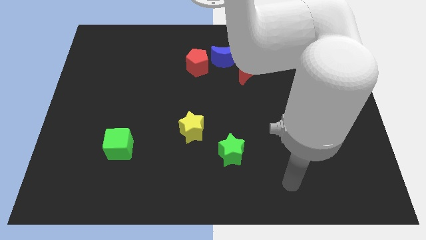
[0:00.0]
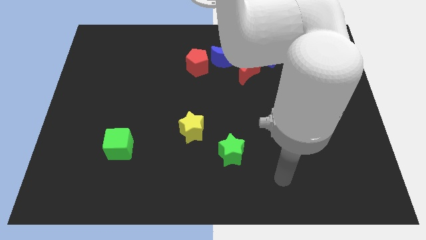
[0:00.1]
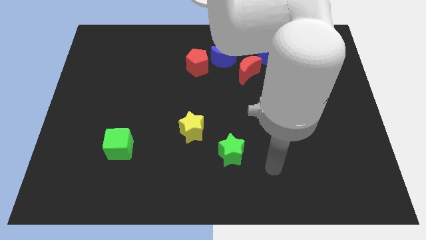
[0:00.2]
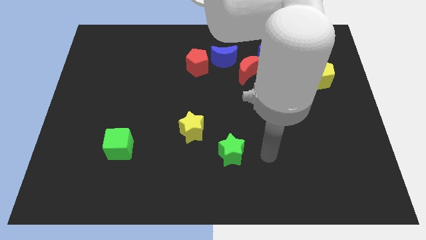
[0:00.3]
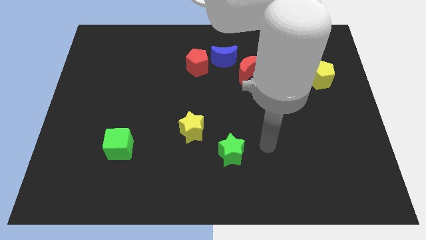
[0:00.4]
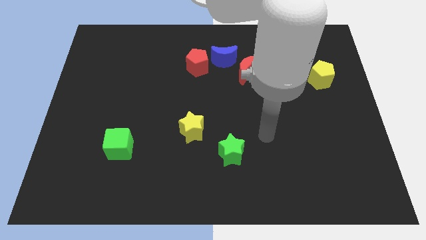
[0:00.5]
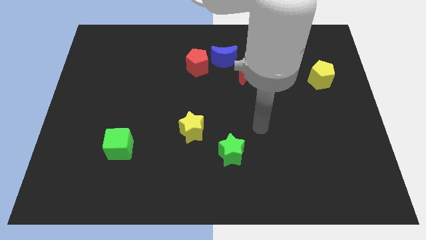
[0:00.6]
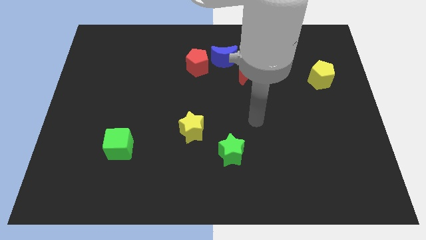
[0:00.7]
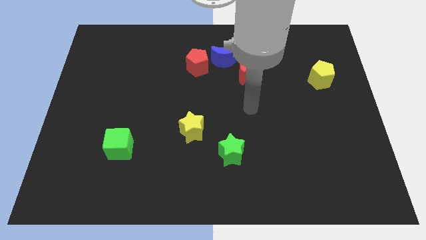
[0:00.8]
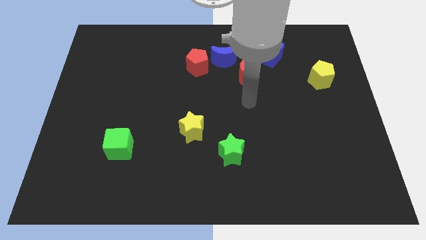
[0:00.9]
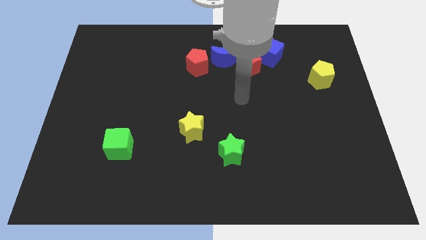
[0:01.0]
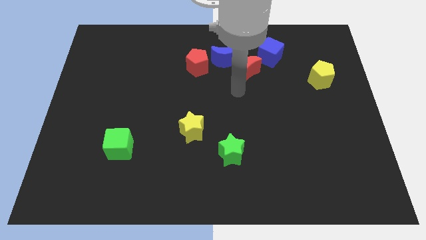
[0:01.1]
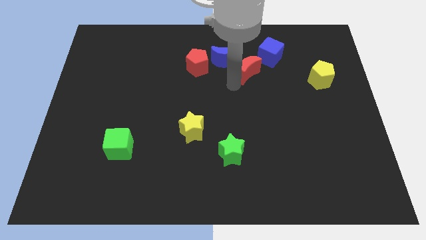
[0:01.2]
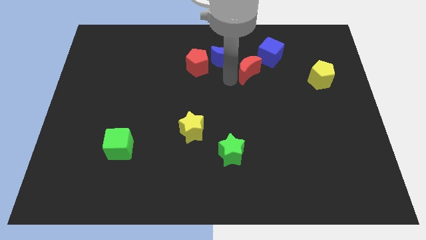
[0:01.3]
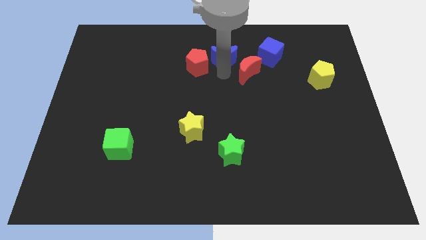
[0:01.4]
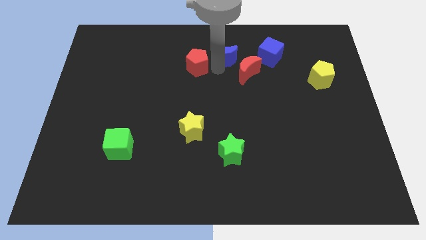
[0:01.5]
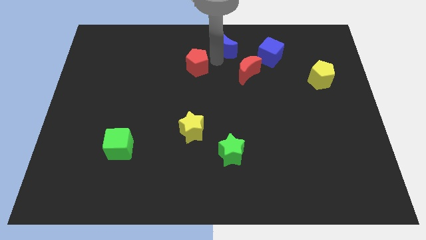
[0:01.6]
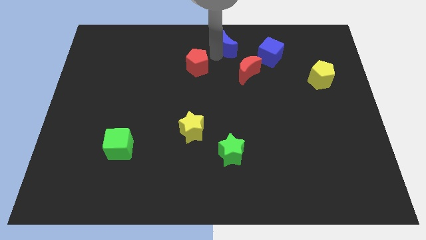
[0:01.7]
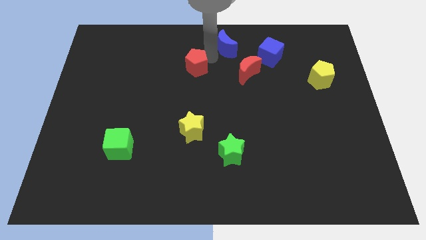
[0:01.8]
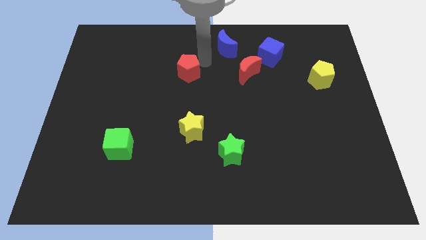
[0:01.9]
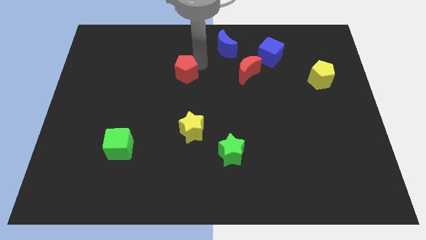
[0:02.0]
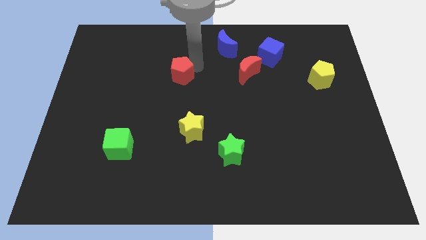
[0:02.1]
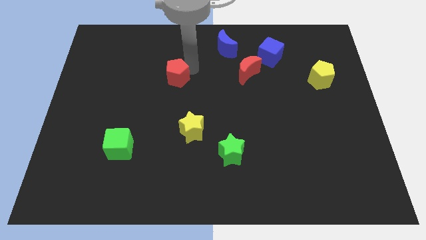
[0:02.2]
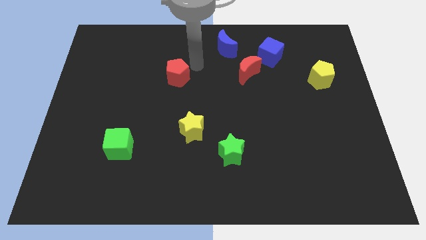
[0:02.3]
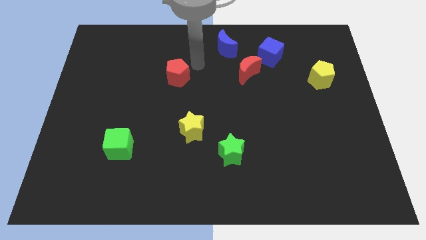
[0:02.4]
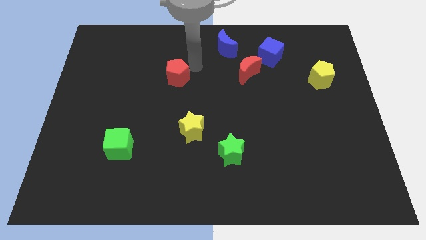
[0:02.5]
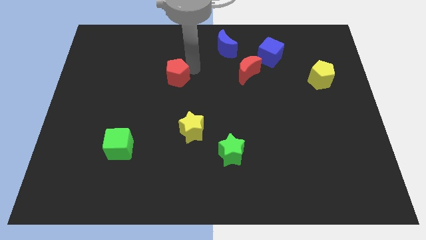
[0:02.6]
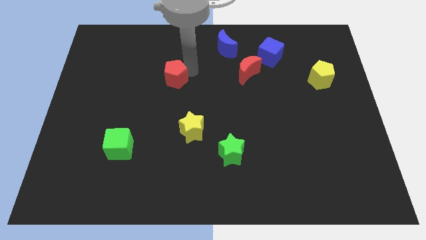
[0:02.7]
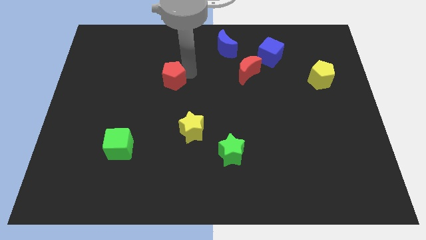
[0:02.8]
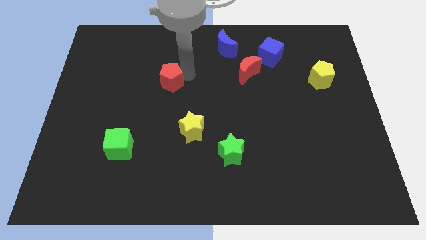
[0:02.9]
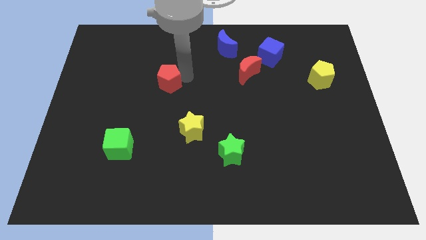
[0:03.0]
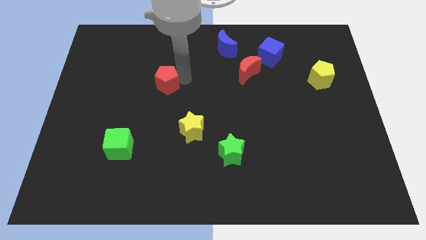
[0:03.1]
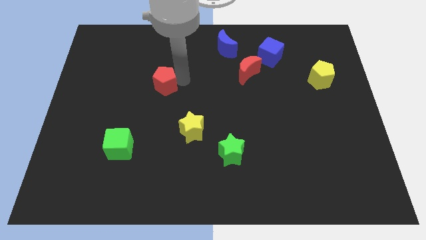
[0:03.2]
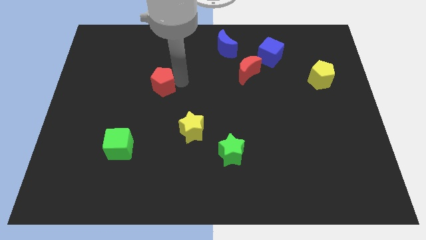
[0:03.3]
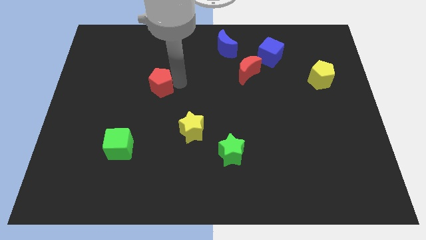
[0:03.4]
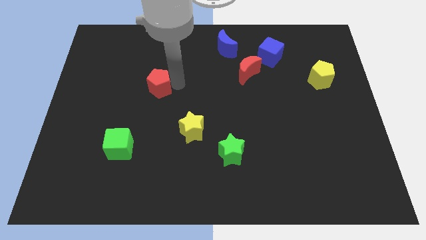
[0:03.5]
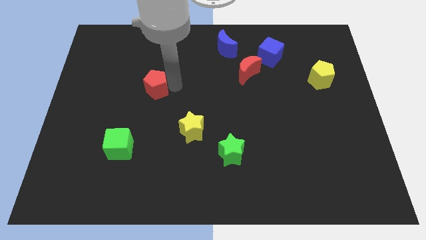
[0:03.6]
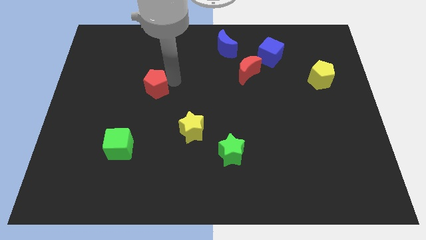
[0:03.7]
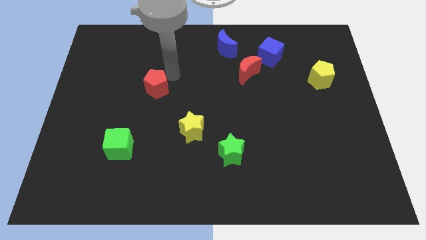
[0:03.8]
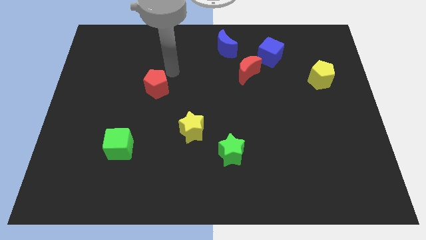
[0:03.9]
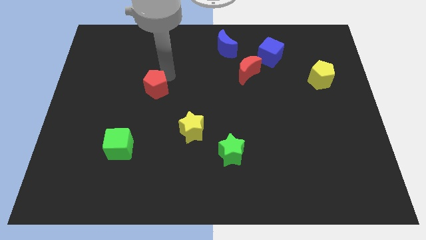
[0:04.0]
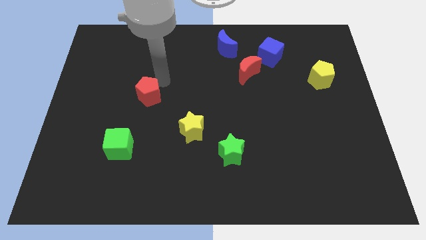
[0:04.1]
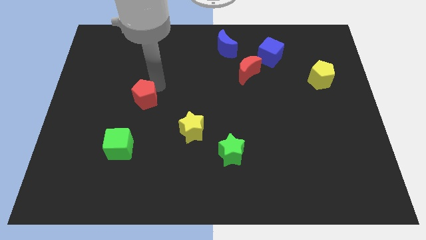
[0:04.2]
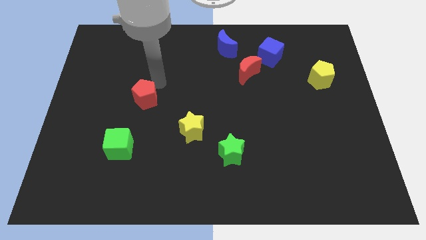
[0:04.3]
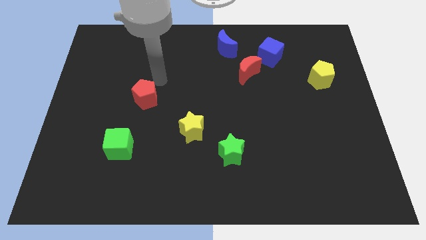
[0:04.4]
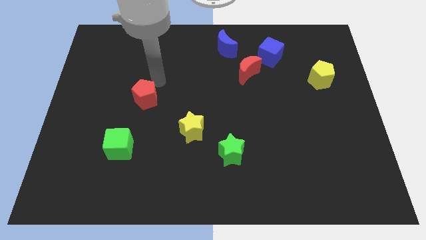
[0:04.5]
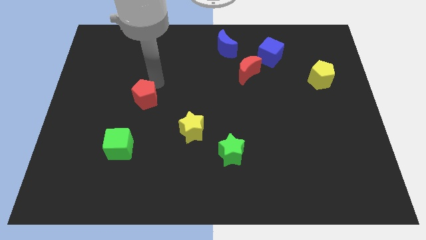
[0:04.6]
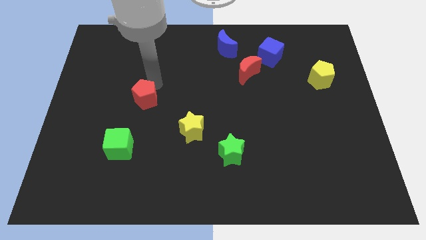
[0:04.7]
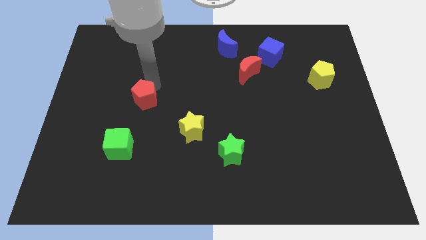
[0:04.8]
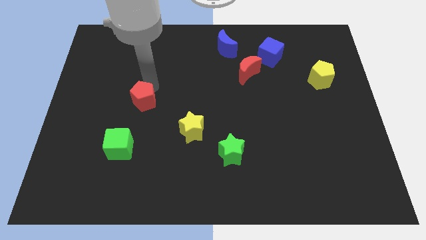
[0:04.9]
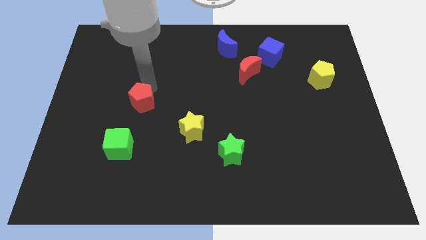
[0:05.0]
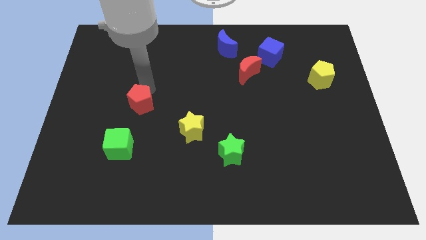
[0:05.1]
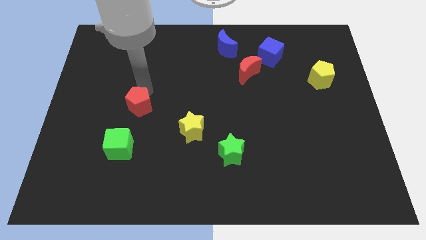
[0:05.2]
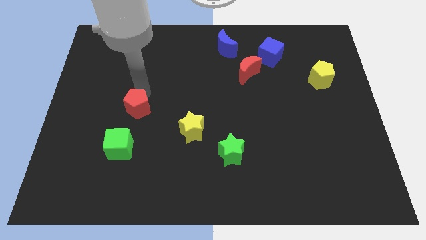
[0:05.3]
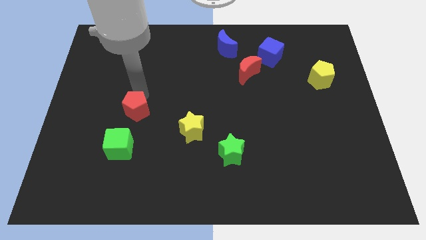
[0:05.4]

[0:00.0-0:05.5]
slide the red pentagon downwards and to the left

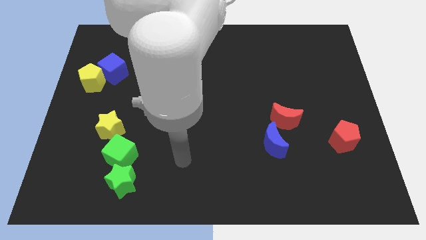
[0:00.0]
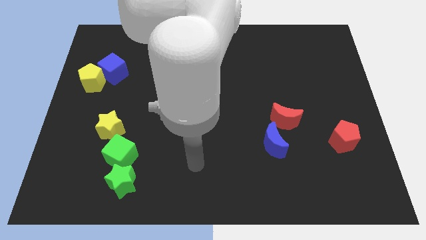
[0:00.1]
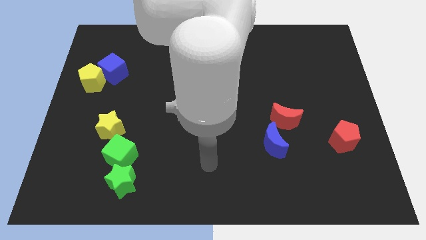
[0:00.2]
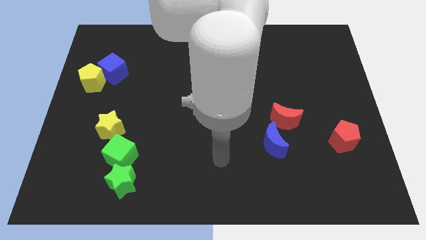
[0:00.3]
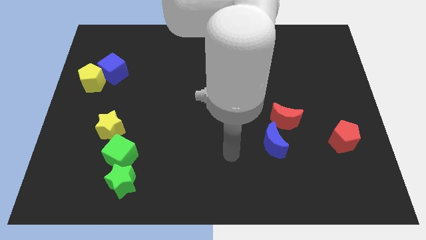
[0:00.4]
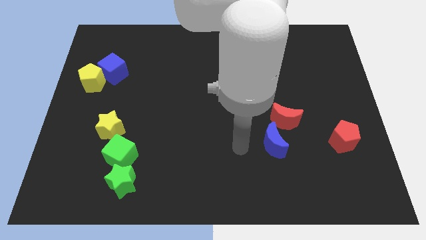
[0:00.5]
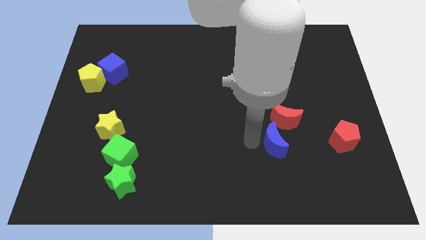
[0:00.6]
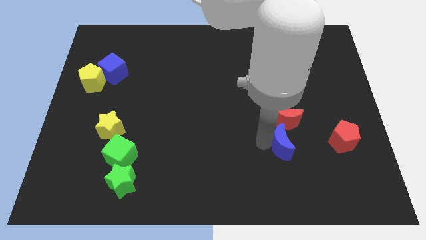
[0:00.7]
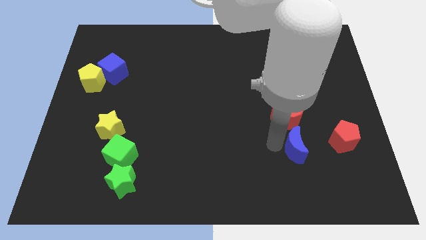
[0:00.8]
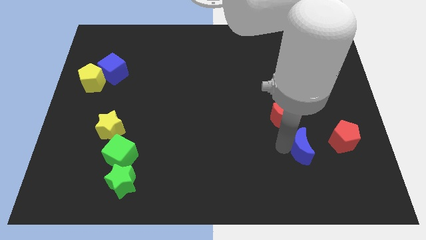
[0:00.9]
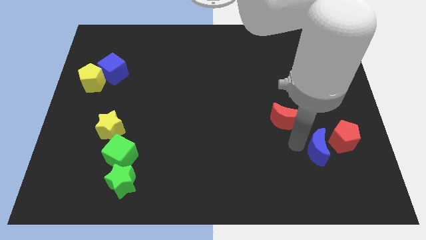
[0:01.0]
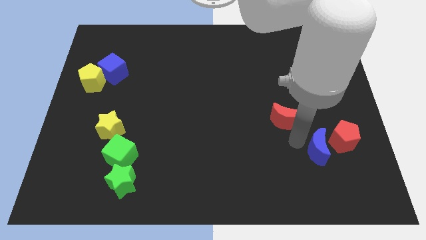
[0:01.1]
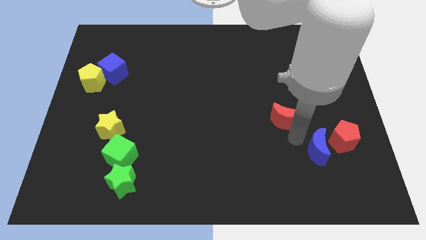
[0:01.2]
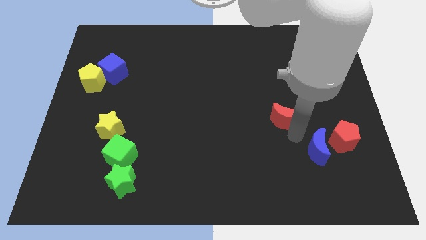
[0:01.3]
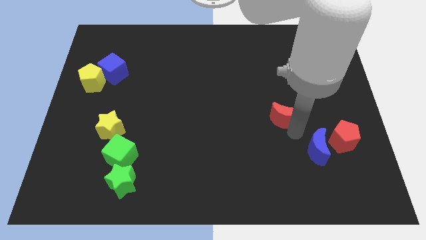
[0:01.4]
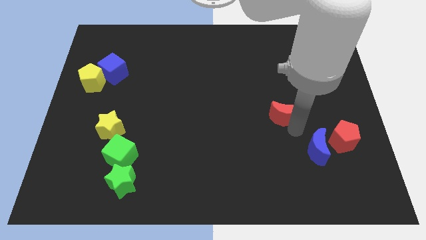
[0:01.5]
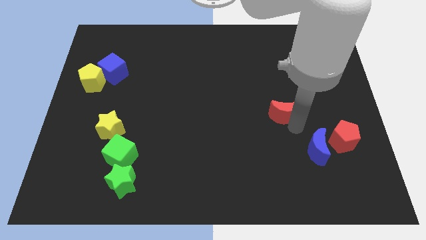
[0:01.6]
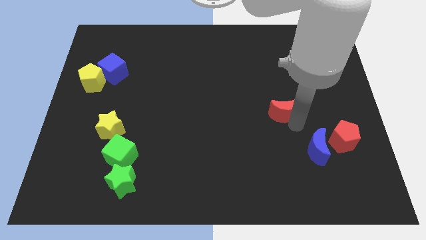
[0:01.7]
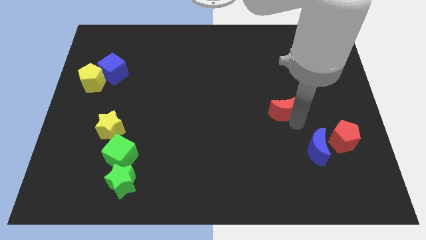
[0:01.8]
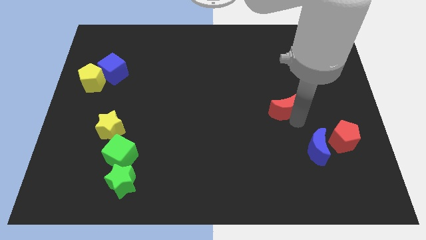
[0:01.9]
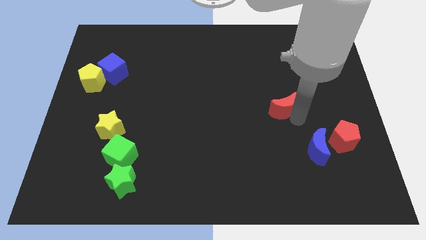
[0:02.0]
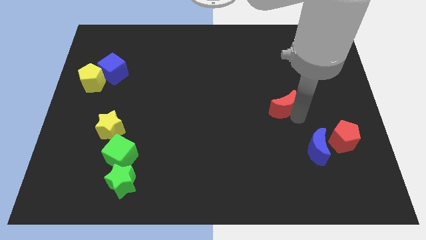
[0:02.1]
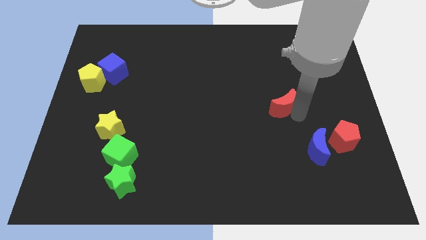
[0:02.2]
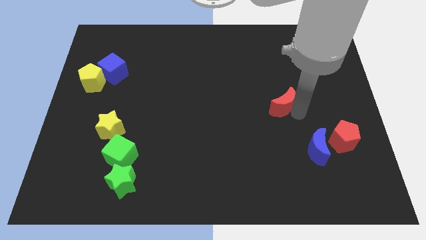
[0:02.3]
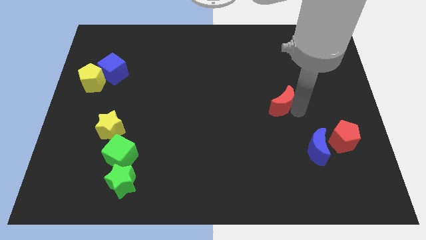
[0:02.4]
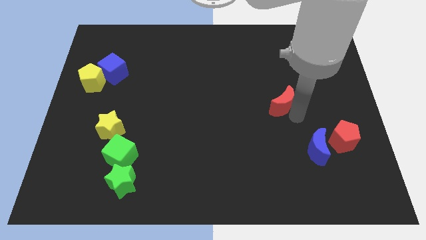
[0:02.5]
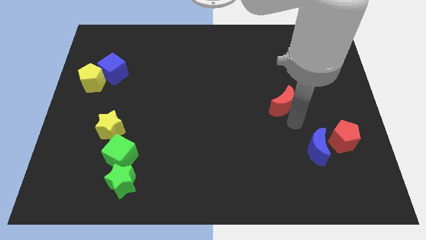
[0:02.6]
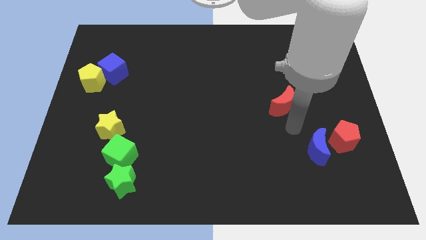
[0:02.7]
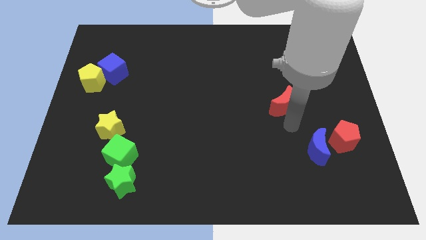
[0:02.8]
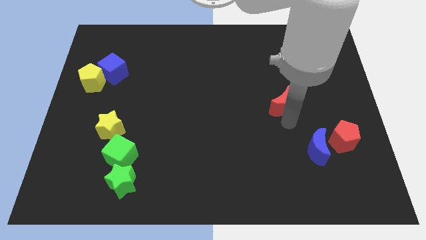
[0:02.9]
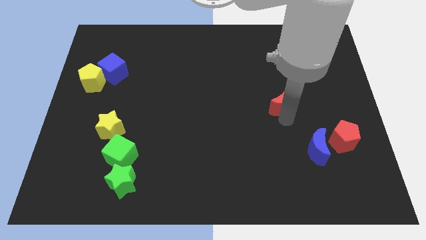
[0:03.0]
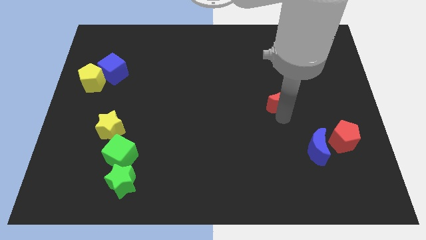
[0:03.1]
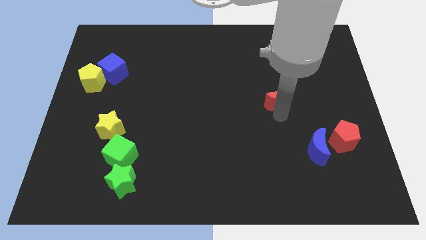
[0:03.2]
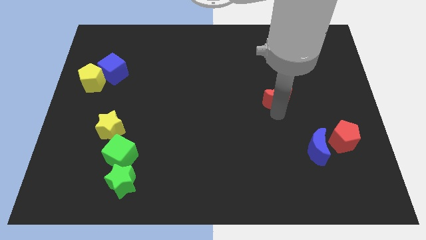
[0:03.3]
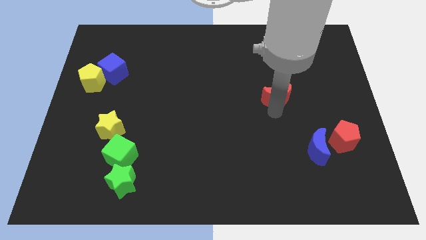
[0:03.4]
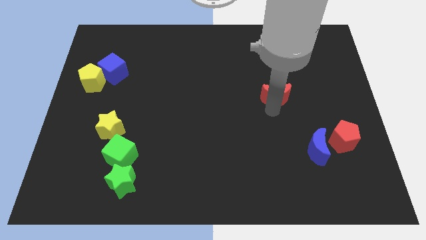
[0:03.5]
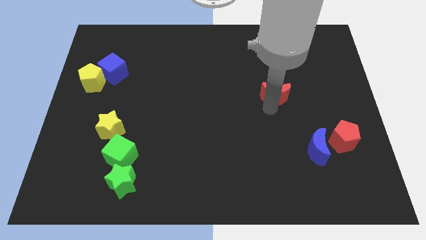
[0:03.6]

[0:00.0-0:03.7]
slide the red moon upwards slightly
